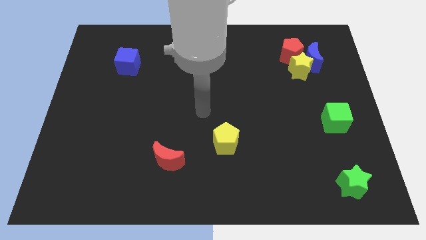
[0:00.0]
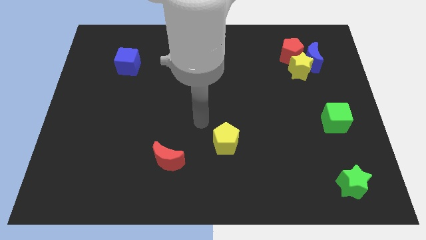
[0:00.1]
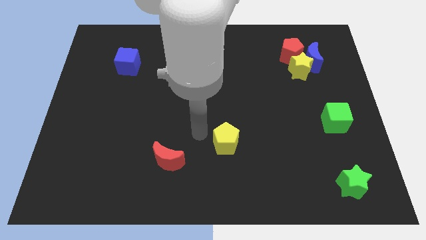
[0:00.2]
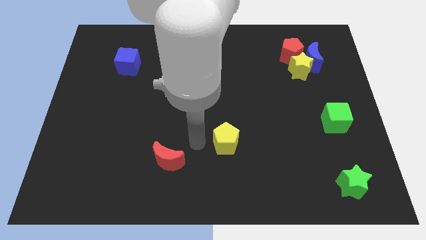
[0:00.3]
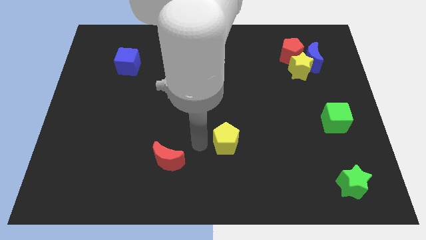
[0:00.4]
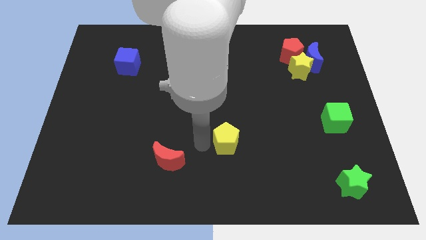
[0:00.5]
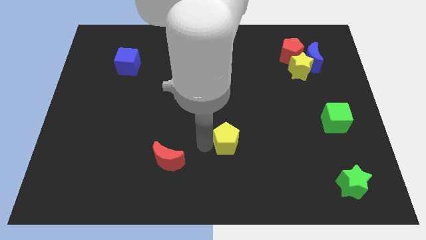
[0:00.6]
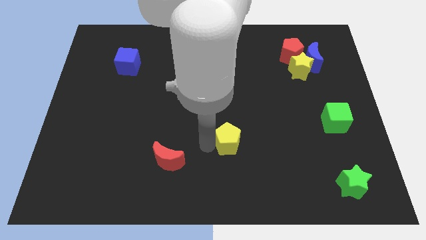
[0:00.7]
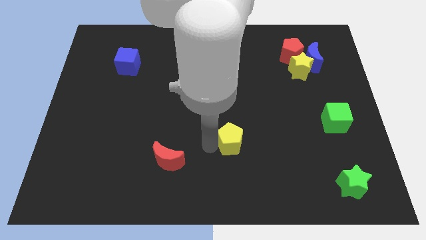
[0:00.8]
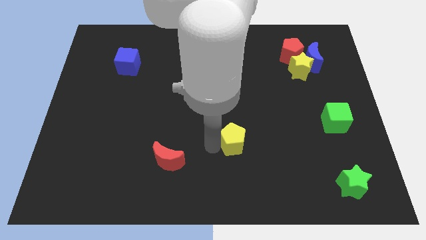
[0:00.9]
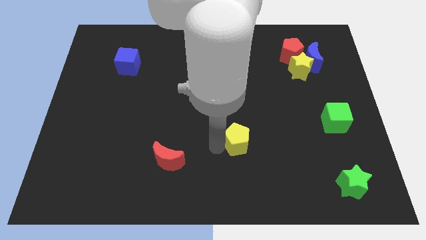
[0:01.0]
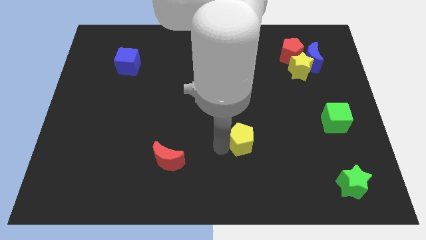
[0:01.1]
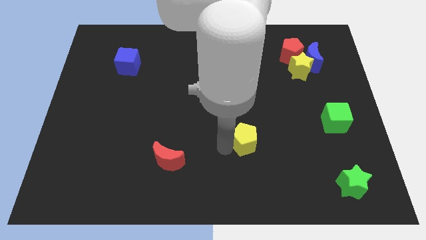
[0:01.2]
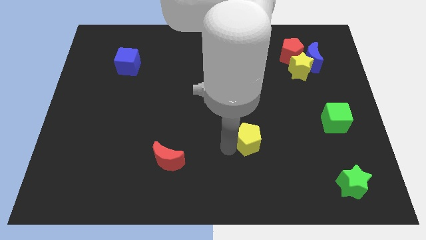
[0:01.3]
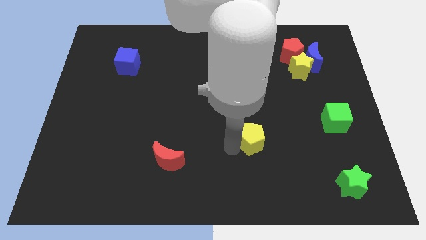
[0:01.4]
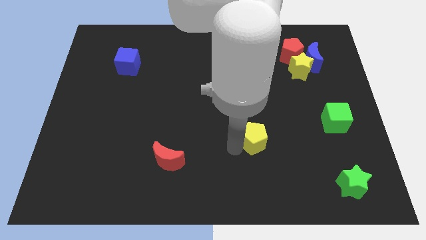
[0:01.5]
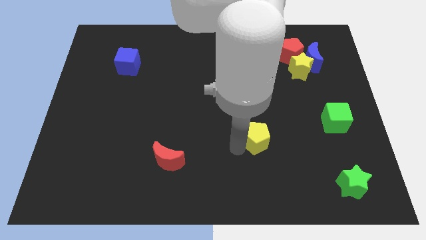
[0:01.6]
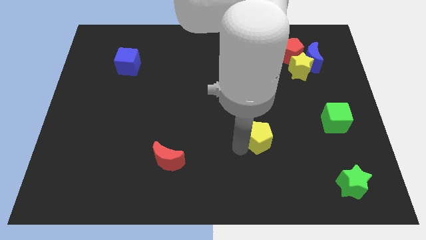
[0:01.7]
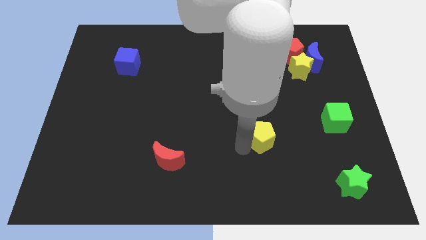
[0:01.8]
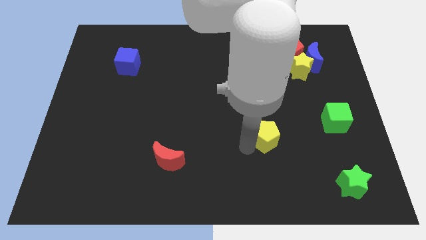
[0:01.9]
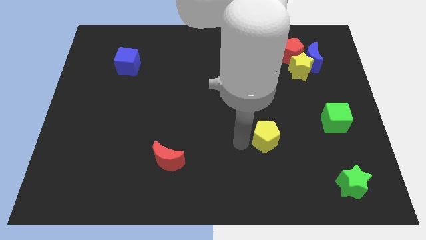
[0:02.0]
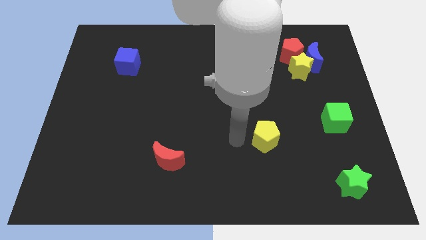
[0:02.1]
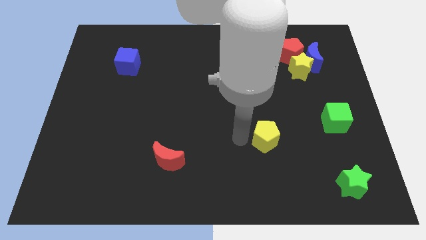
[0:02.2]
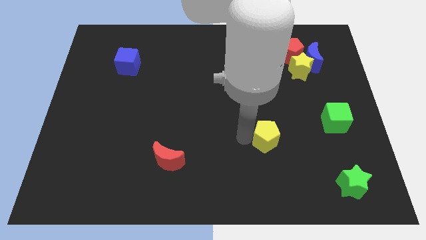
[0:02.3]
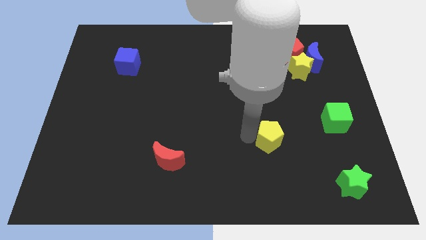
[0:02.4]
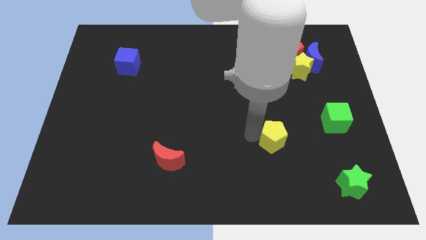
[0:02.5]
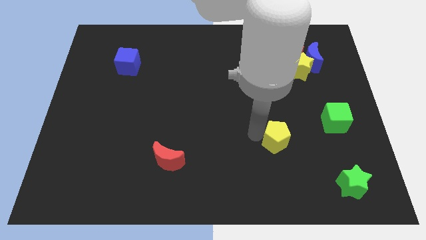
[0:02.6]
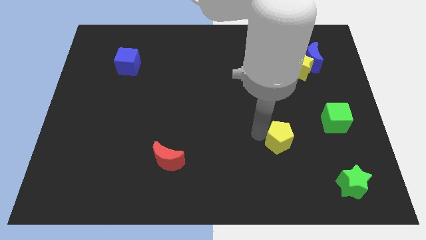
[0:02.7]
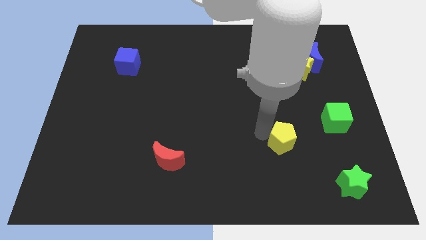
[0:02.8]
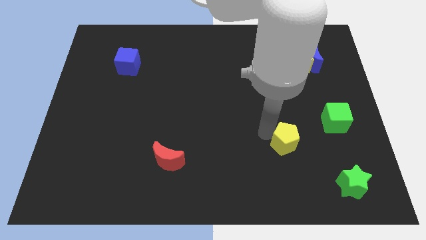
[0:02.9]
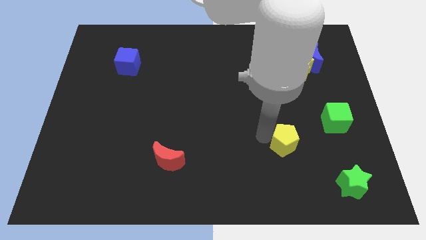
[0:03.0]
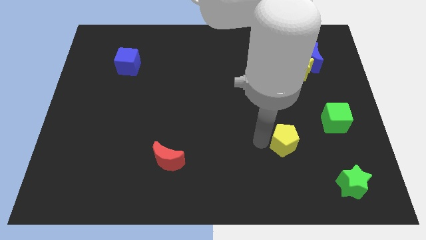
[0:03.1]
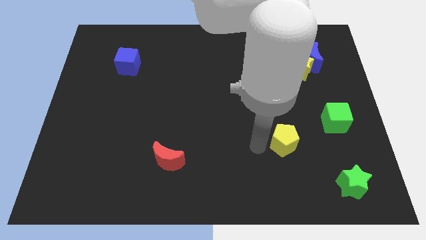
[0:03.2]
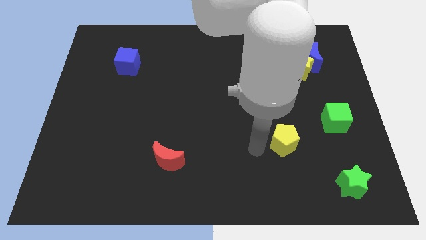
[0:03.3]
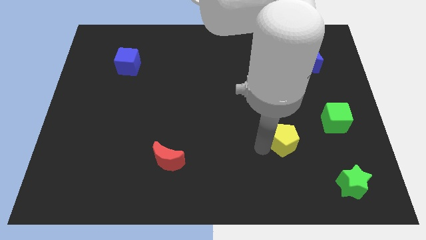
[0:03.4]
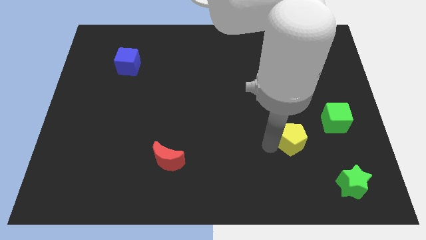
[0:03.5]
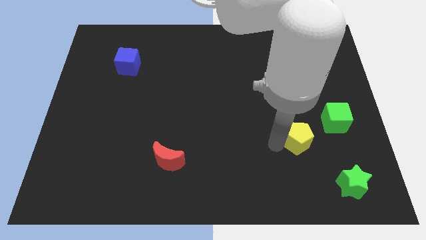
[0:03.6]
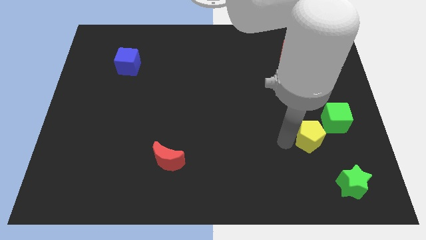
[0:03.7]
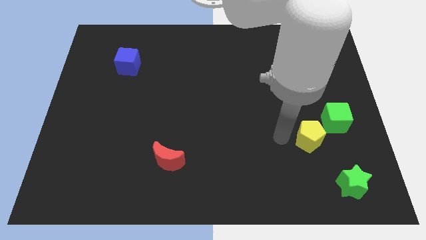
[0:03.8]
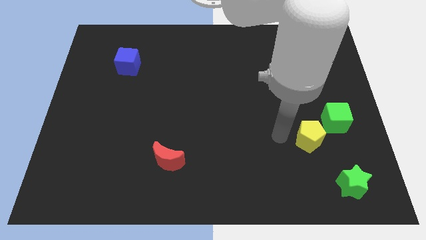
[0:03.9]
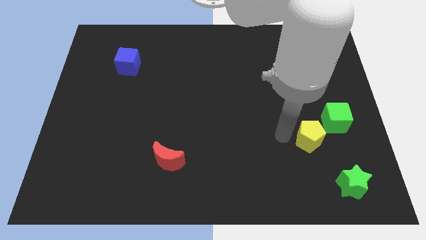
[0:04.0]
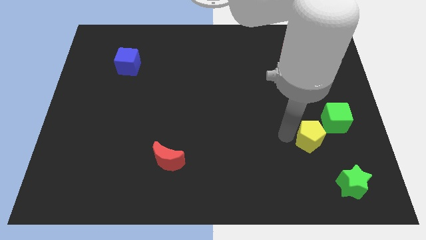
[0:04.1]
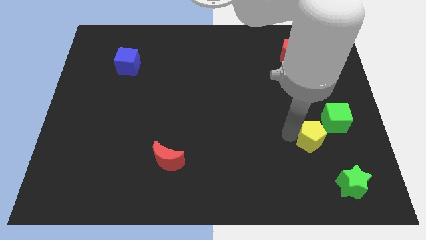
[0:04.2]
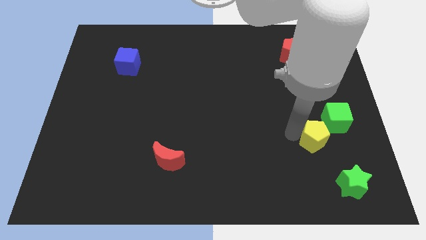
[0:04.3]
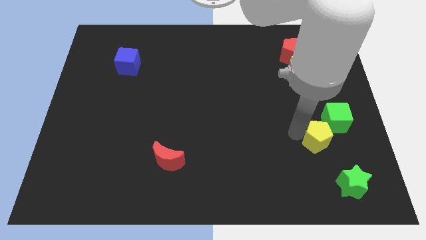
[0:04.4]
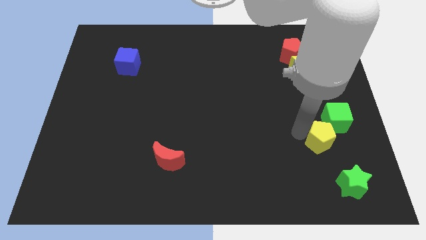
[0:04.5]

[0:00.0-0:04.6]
move the yellow pentagon to the top side of the green star

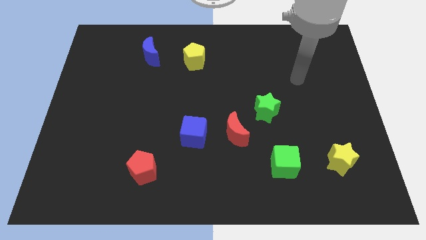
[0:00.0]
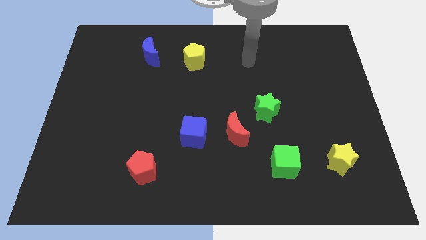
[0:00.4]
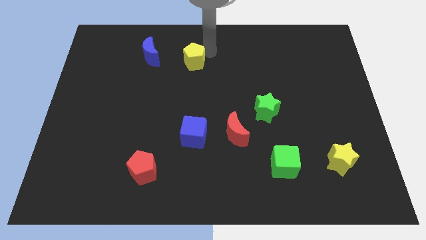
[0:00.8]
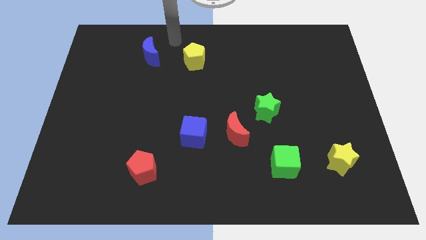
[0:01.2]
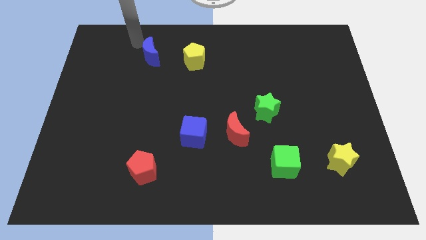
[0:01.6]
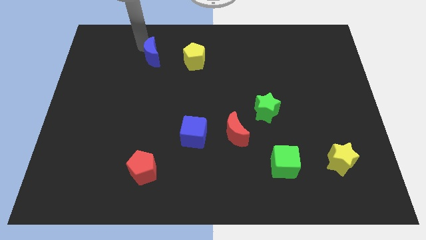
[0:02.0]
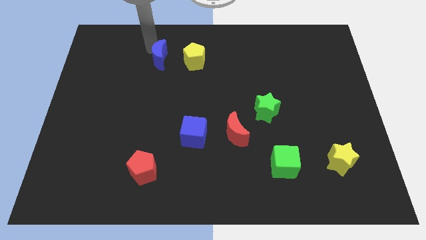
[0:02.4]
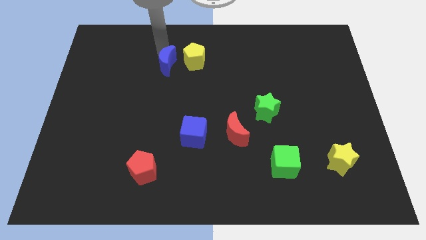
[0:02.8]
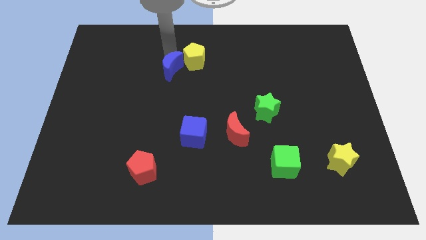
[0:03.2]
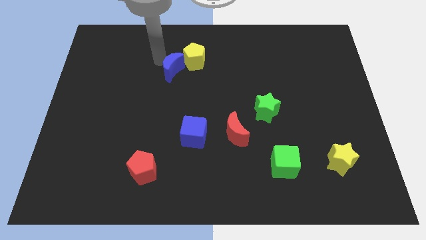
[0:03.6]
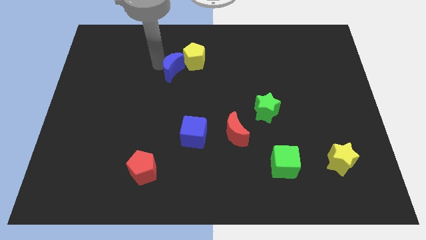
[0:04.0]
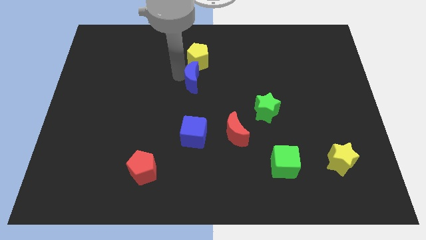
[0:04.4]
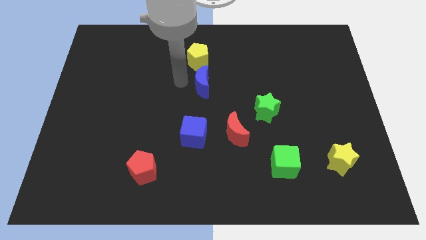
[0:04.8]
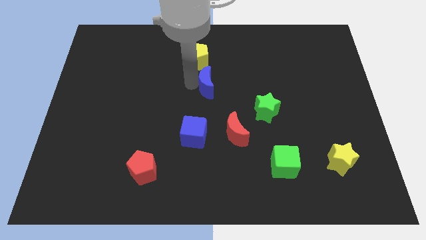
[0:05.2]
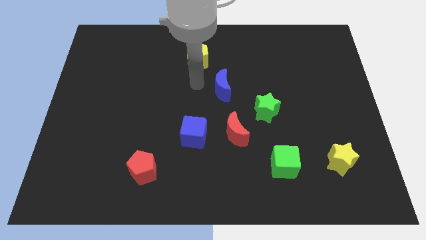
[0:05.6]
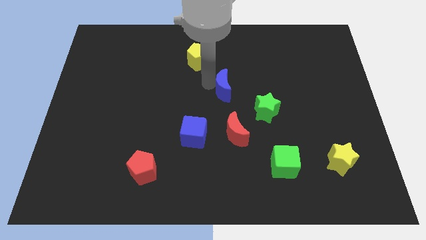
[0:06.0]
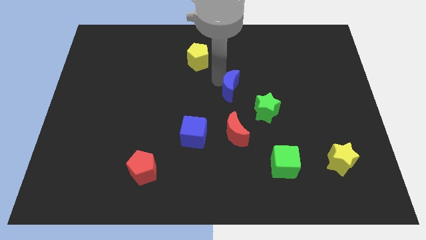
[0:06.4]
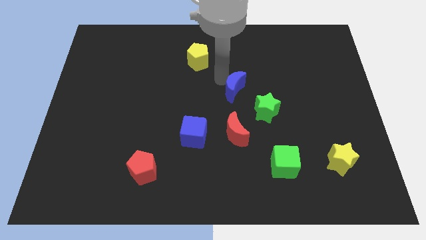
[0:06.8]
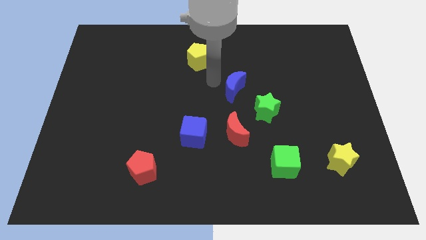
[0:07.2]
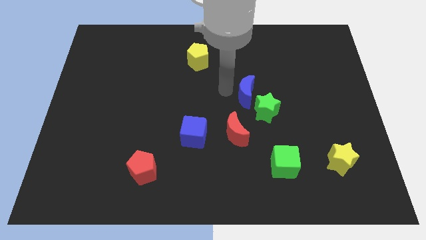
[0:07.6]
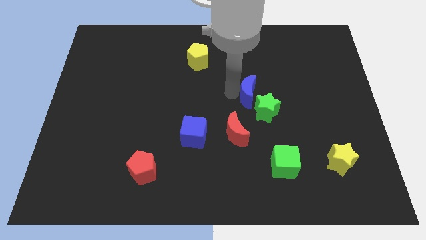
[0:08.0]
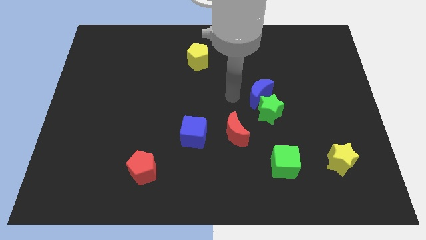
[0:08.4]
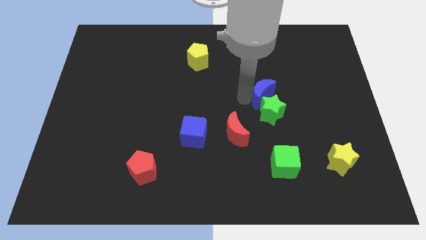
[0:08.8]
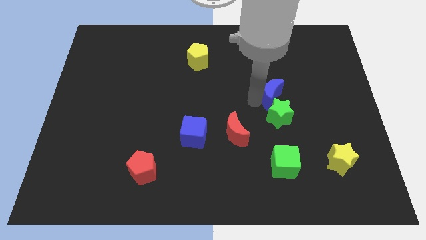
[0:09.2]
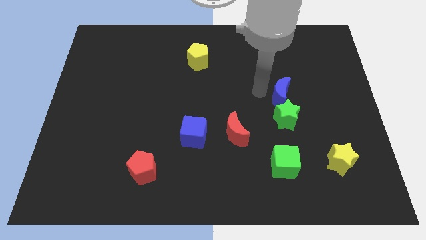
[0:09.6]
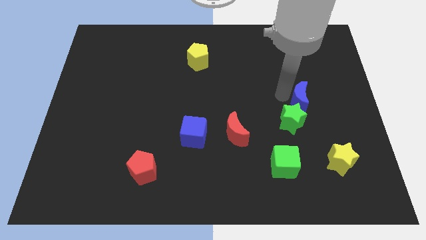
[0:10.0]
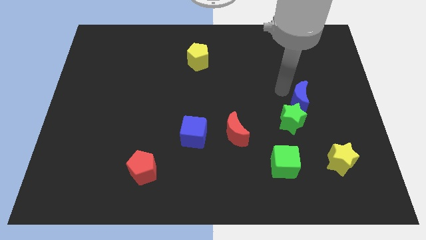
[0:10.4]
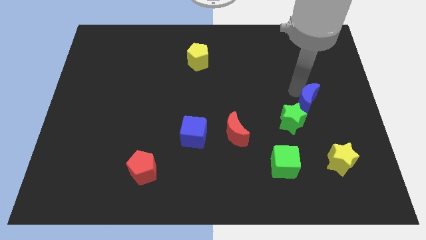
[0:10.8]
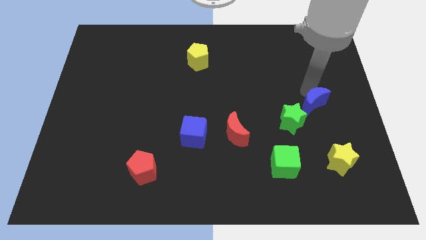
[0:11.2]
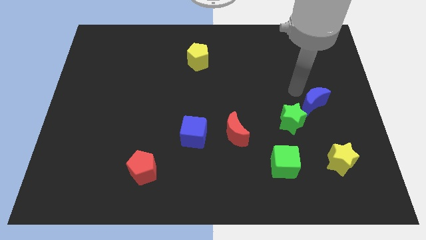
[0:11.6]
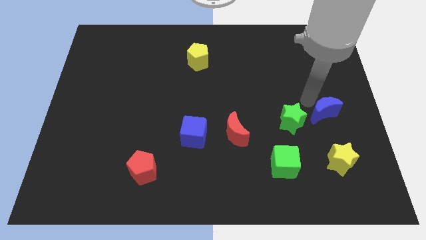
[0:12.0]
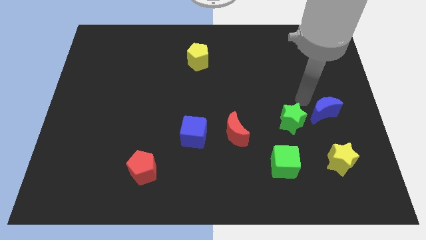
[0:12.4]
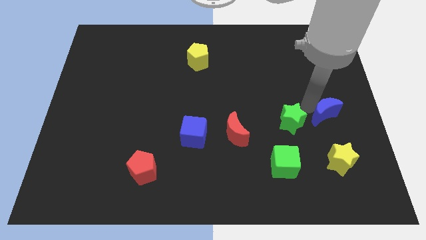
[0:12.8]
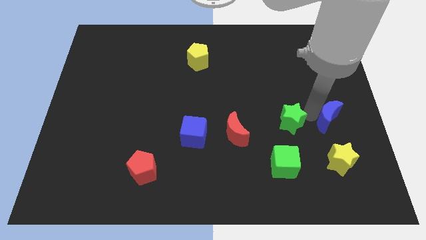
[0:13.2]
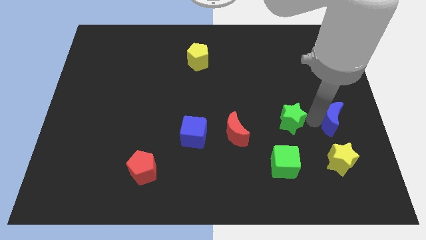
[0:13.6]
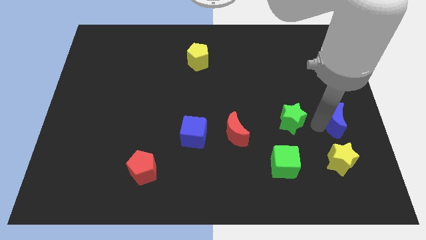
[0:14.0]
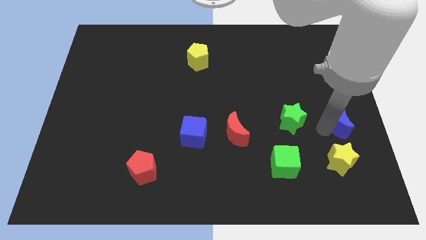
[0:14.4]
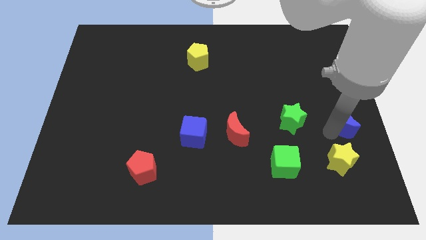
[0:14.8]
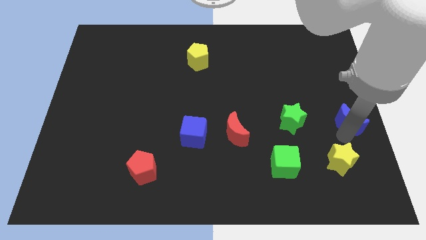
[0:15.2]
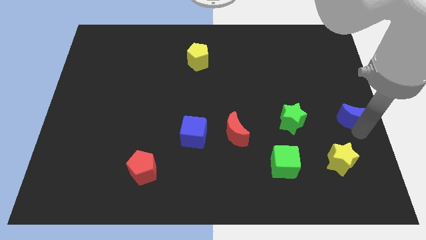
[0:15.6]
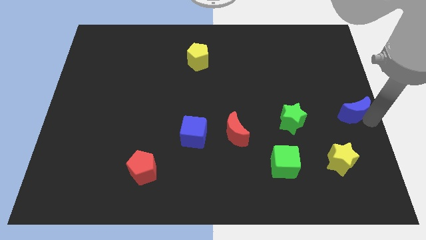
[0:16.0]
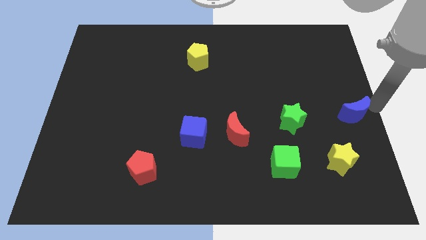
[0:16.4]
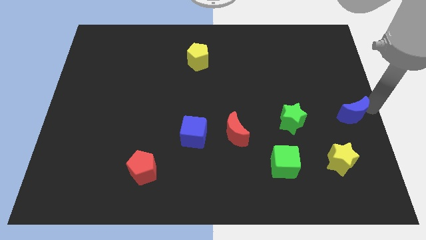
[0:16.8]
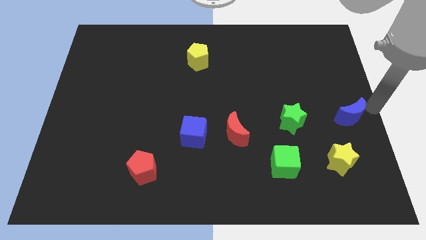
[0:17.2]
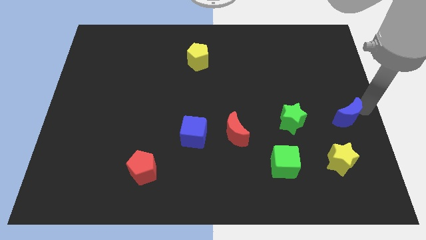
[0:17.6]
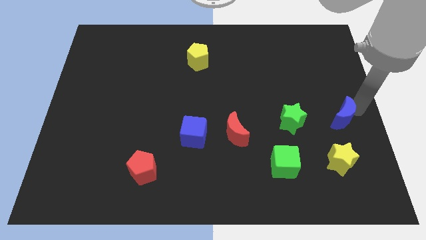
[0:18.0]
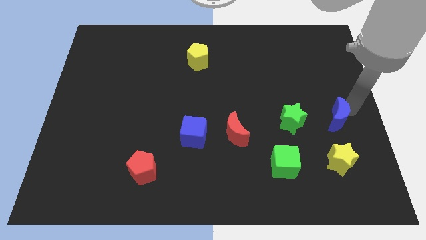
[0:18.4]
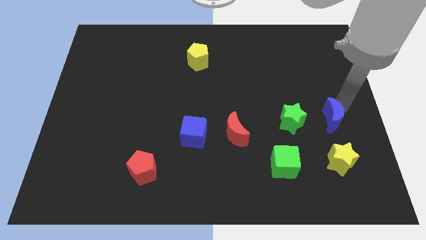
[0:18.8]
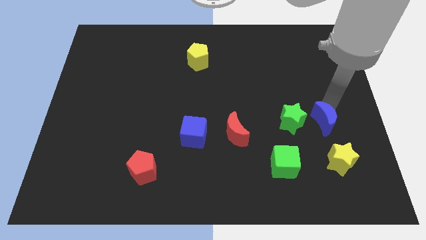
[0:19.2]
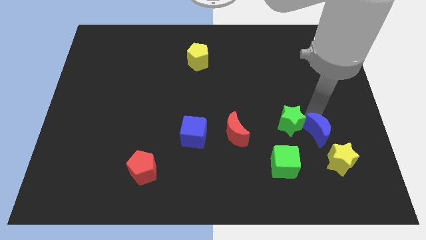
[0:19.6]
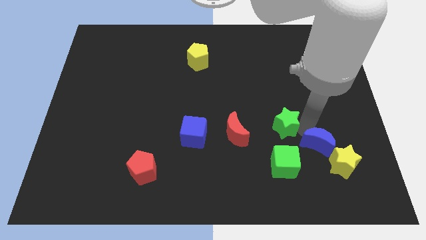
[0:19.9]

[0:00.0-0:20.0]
move the blue moon to the right of the green star
